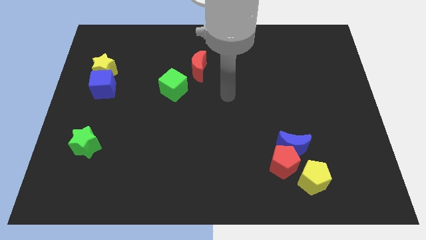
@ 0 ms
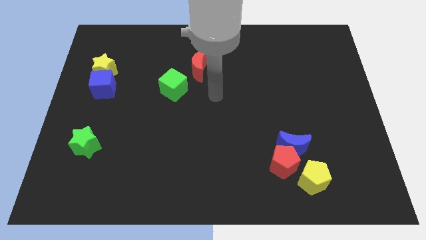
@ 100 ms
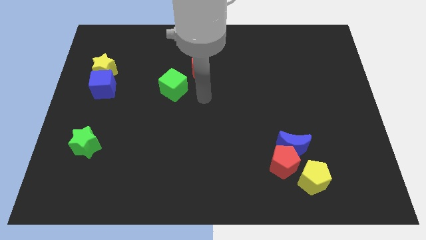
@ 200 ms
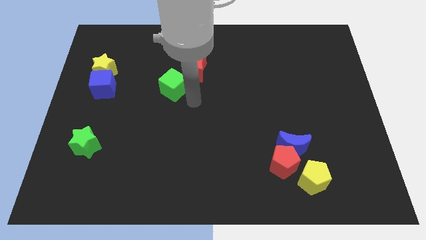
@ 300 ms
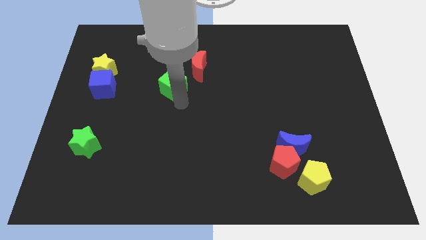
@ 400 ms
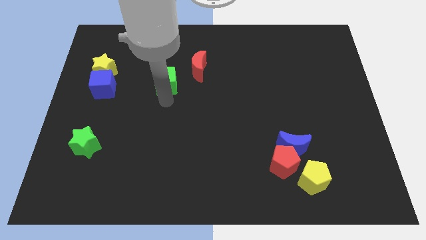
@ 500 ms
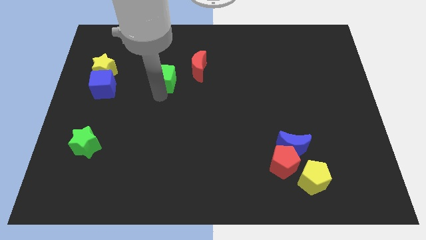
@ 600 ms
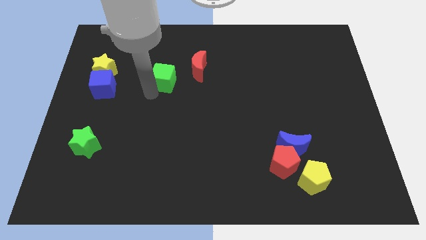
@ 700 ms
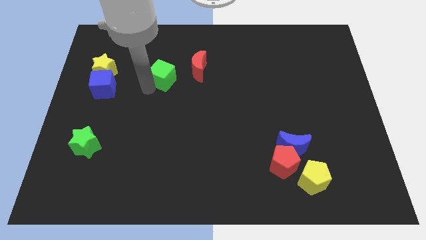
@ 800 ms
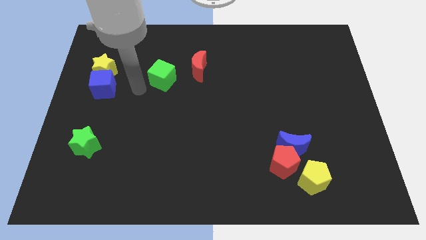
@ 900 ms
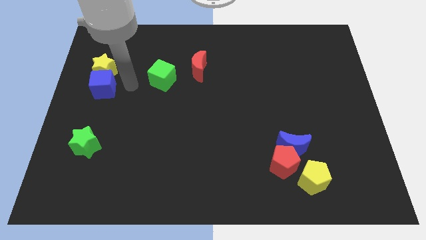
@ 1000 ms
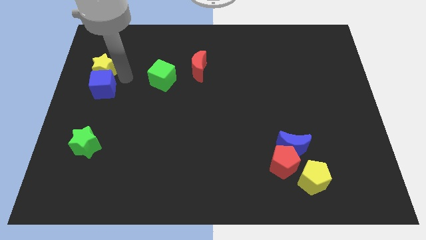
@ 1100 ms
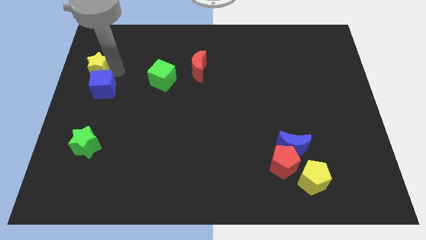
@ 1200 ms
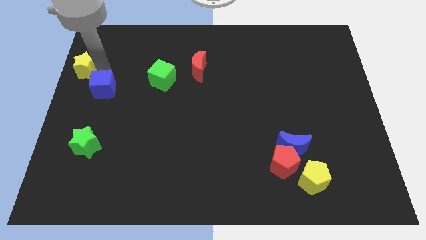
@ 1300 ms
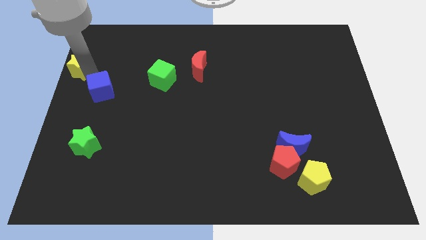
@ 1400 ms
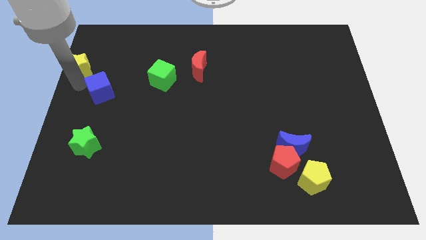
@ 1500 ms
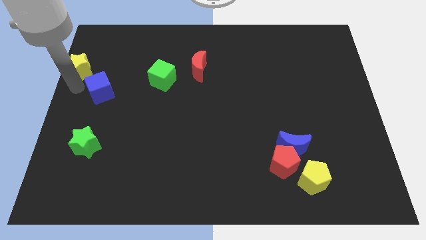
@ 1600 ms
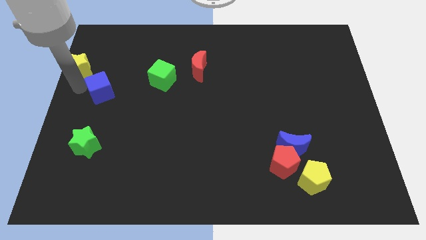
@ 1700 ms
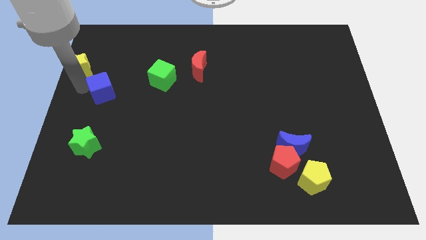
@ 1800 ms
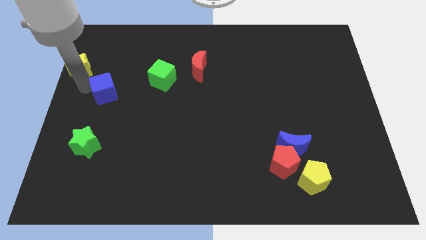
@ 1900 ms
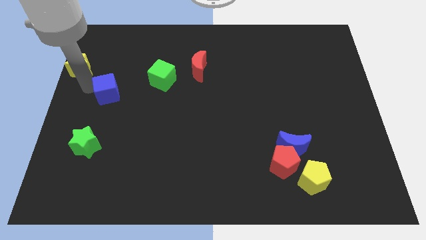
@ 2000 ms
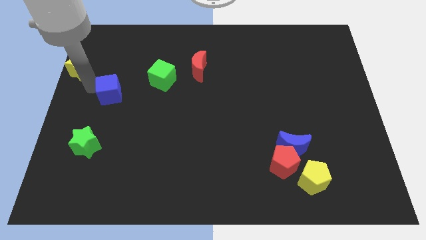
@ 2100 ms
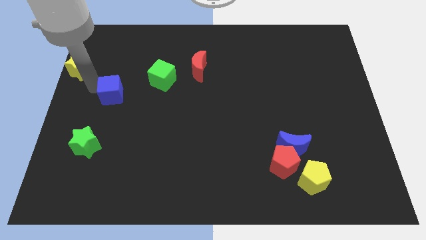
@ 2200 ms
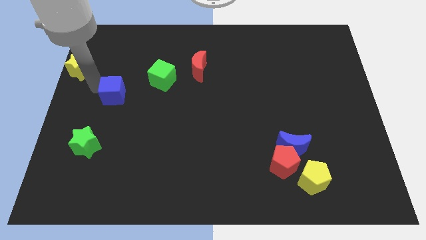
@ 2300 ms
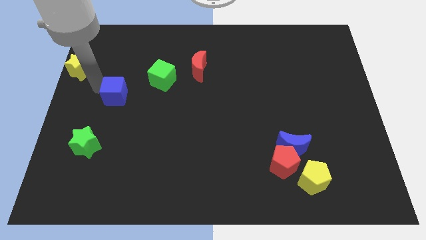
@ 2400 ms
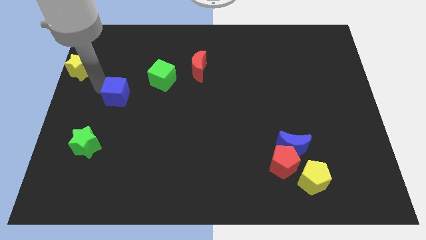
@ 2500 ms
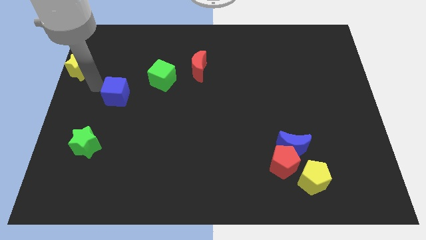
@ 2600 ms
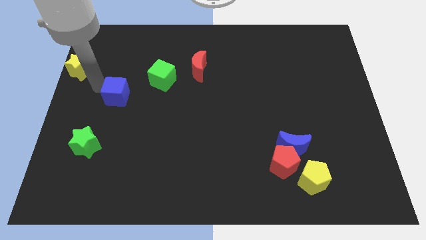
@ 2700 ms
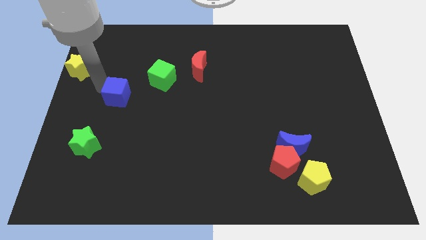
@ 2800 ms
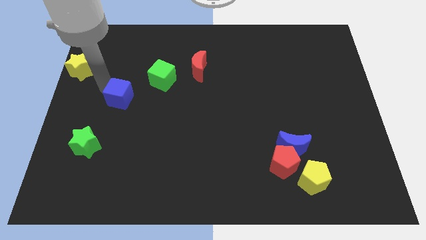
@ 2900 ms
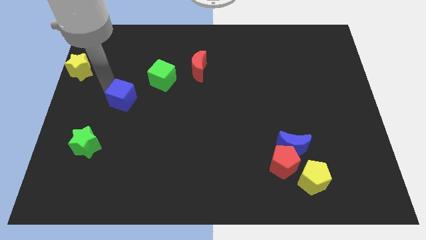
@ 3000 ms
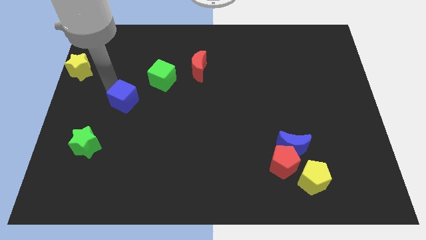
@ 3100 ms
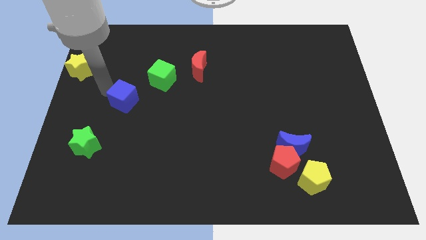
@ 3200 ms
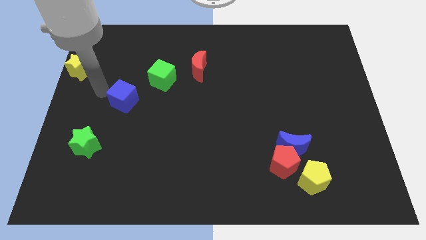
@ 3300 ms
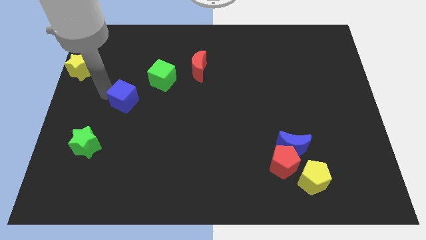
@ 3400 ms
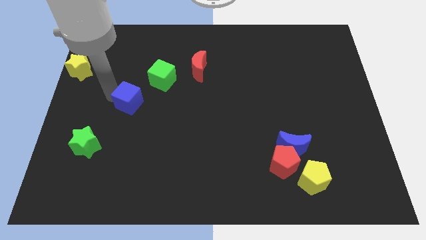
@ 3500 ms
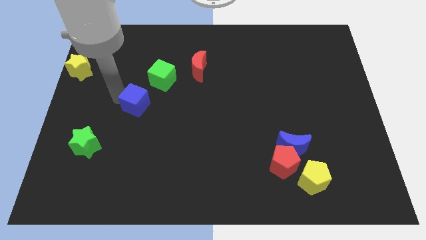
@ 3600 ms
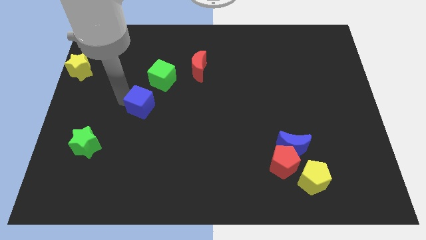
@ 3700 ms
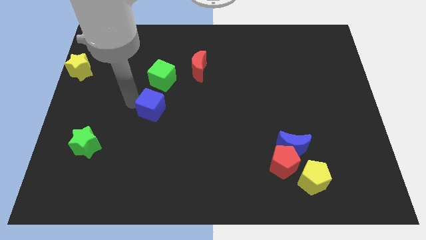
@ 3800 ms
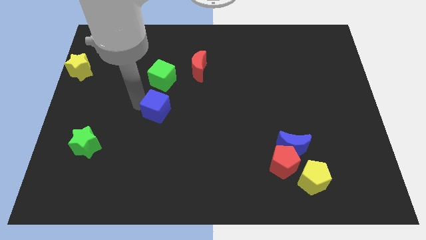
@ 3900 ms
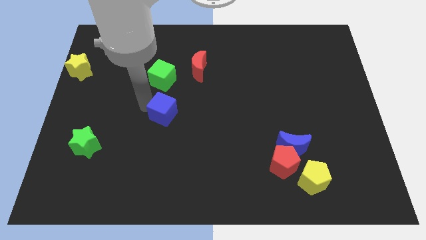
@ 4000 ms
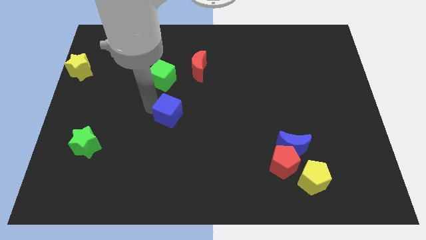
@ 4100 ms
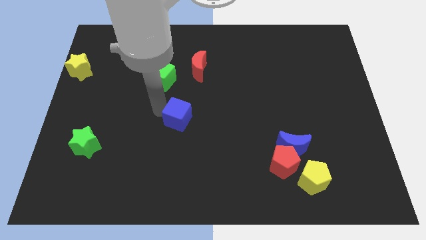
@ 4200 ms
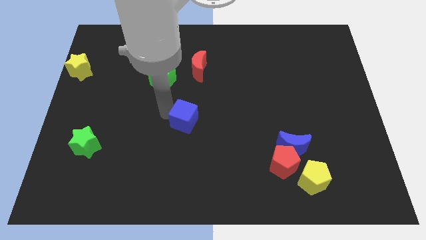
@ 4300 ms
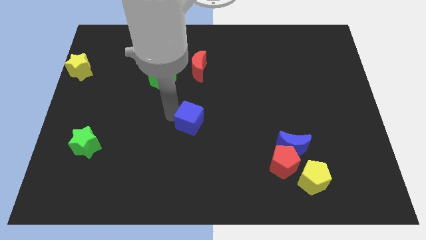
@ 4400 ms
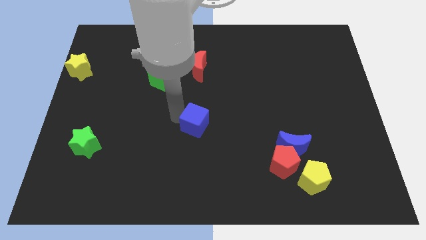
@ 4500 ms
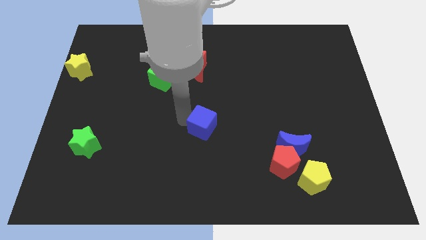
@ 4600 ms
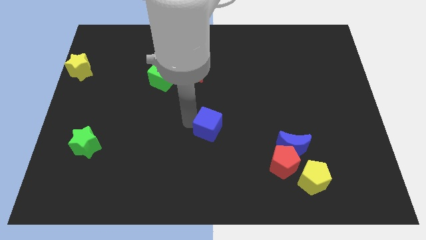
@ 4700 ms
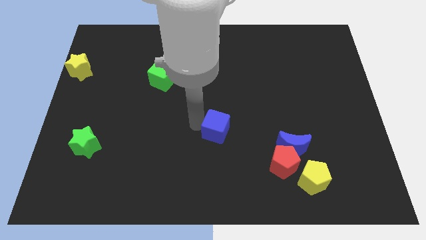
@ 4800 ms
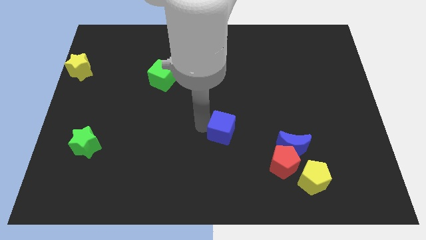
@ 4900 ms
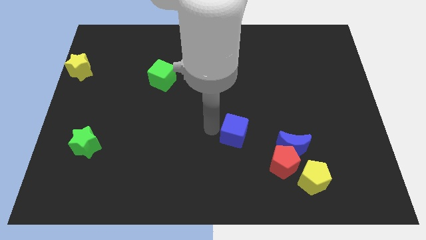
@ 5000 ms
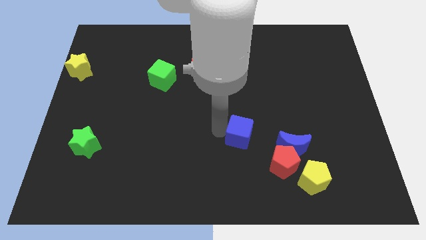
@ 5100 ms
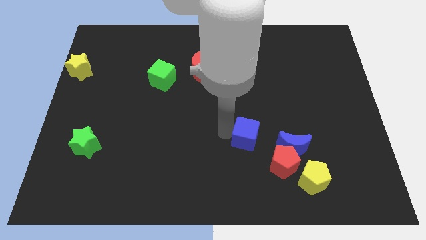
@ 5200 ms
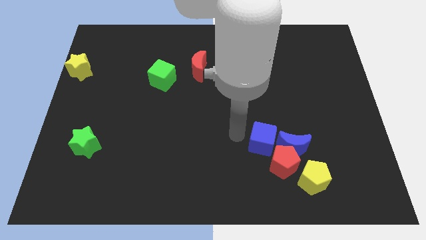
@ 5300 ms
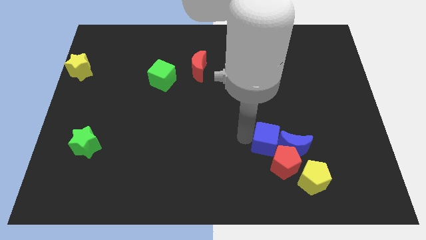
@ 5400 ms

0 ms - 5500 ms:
move the blue cube towards the blue moon

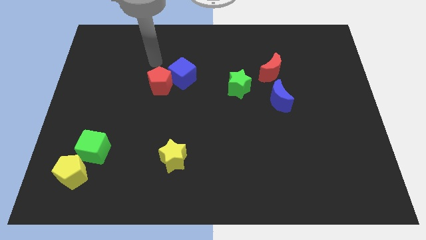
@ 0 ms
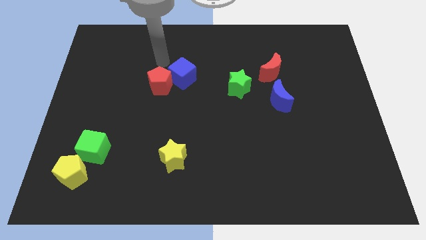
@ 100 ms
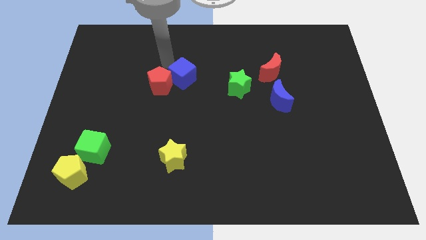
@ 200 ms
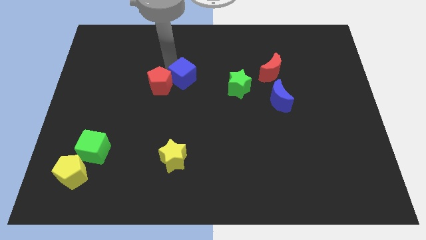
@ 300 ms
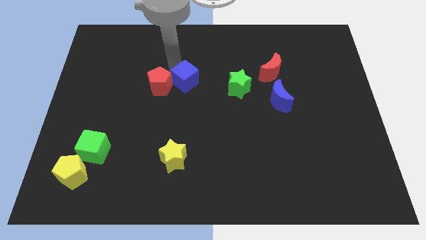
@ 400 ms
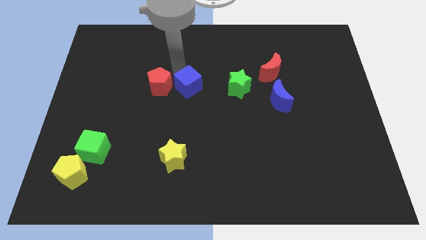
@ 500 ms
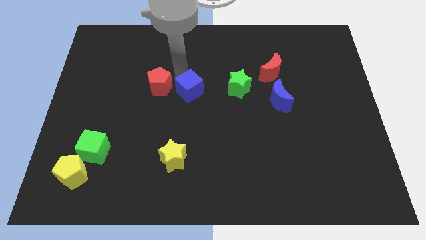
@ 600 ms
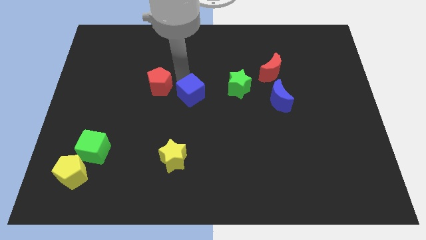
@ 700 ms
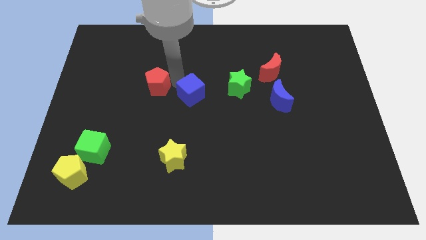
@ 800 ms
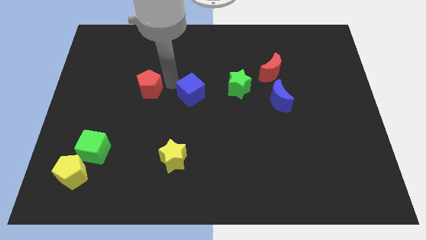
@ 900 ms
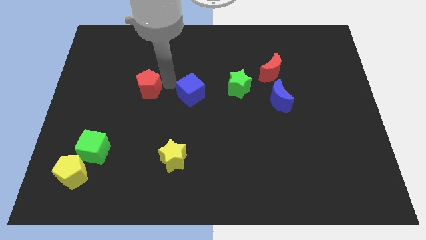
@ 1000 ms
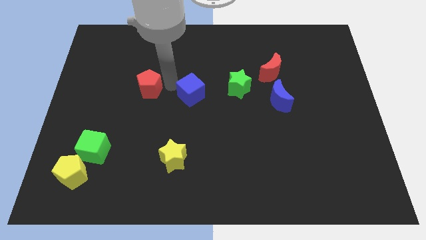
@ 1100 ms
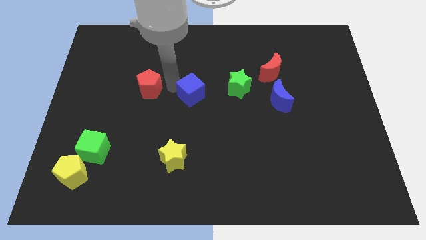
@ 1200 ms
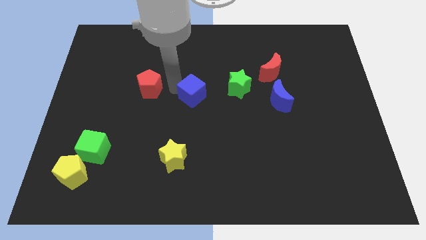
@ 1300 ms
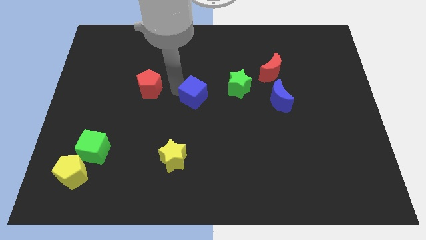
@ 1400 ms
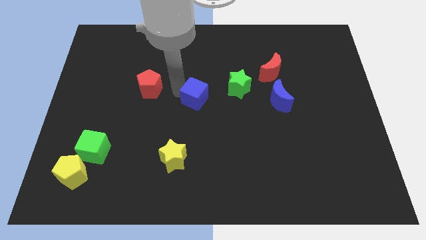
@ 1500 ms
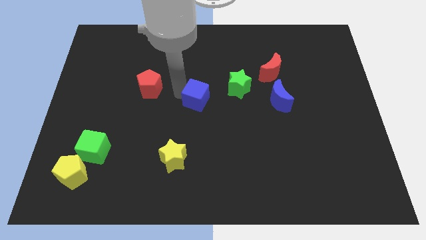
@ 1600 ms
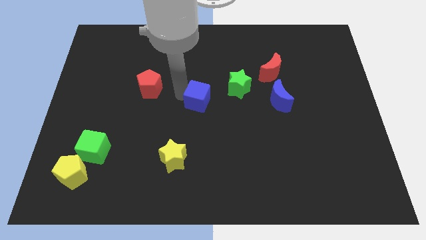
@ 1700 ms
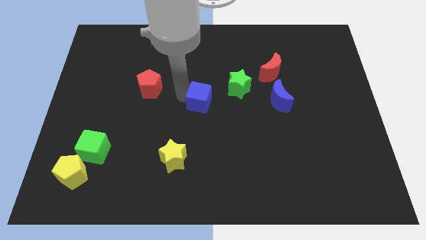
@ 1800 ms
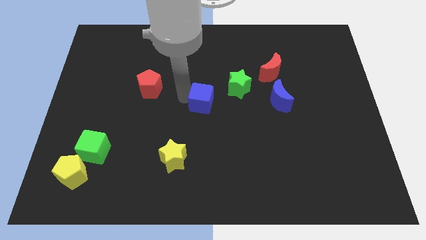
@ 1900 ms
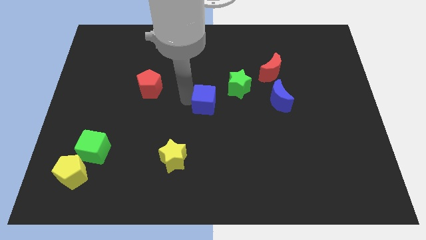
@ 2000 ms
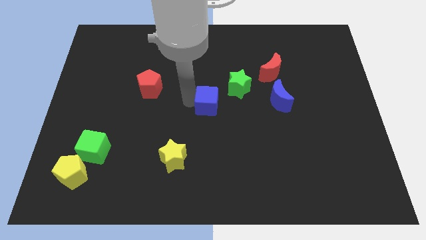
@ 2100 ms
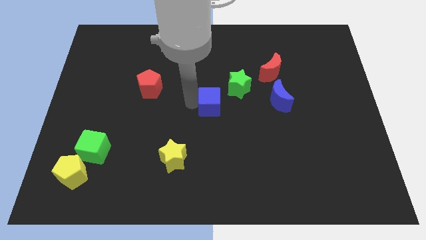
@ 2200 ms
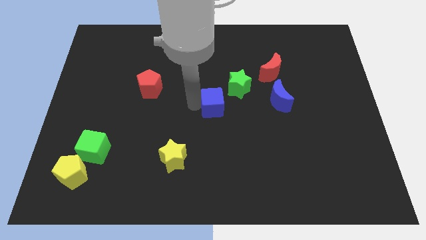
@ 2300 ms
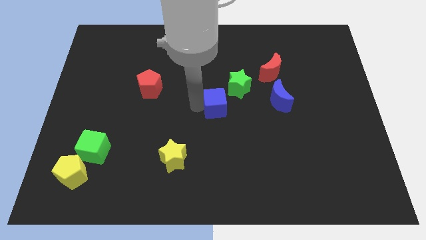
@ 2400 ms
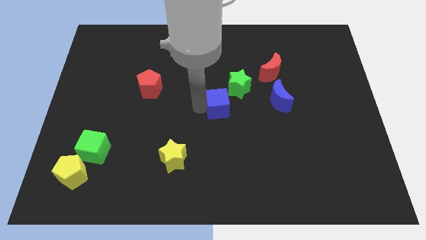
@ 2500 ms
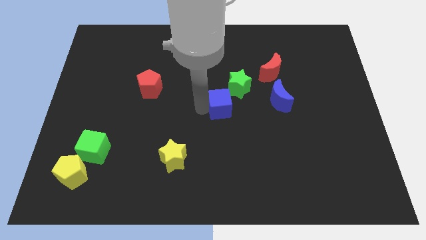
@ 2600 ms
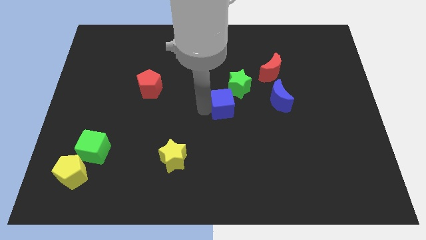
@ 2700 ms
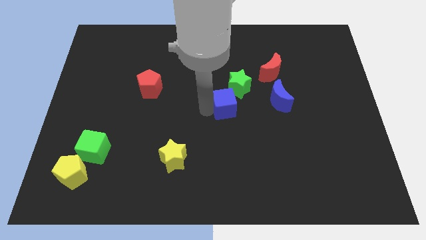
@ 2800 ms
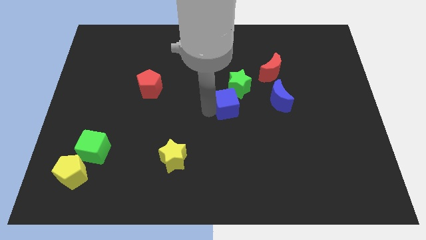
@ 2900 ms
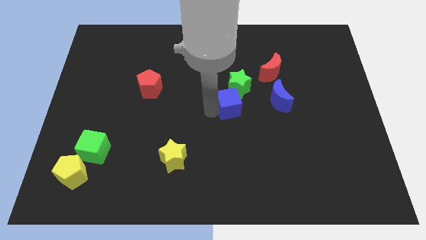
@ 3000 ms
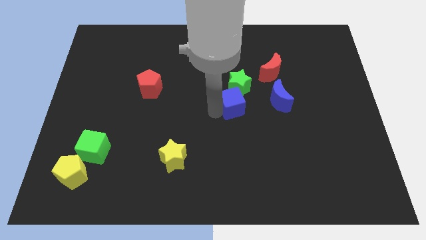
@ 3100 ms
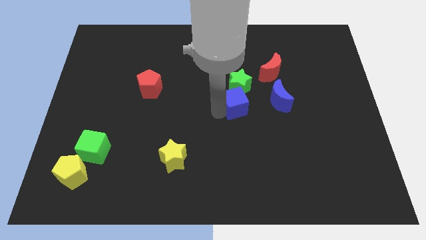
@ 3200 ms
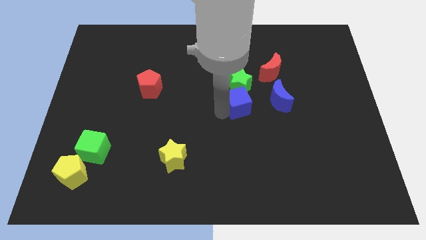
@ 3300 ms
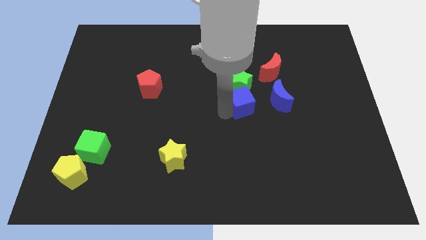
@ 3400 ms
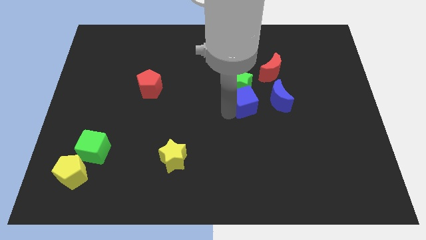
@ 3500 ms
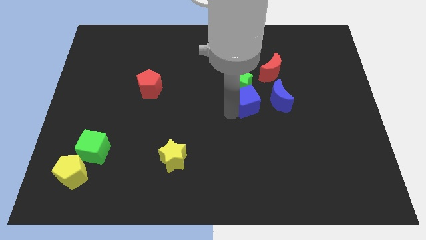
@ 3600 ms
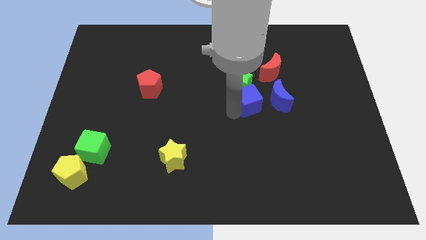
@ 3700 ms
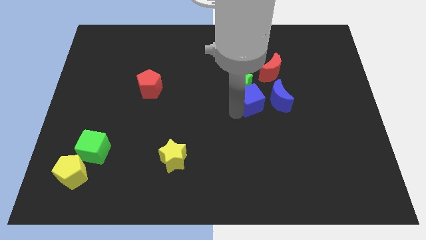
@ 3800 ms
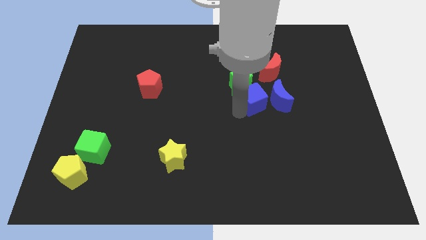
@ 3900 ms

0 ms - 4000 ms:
move the blue cube next to the blue moon
